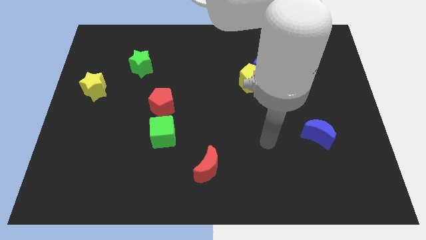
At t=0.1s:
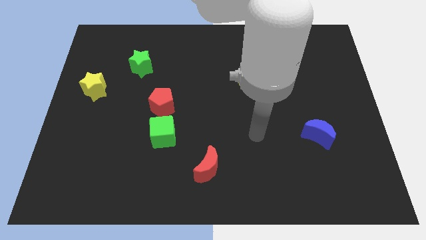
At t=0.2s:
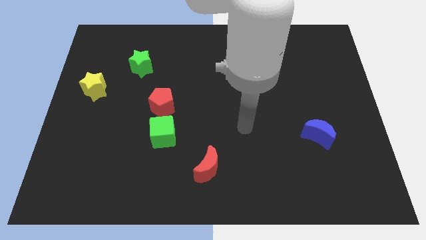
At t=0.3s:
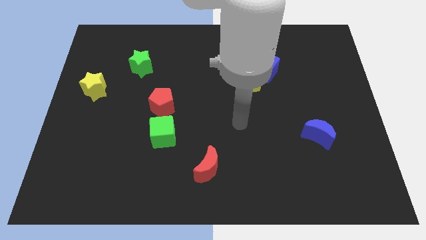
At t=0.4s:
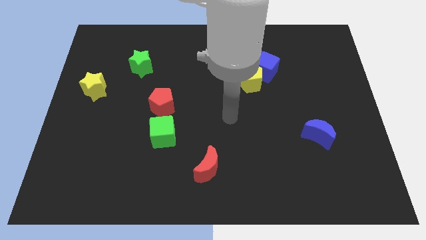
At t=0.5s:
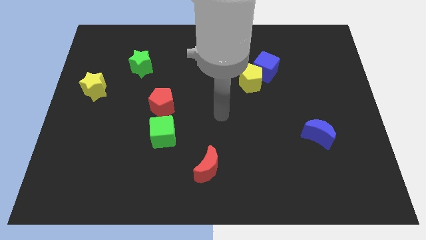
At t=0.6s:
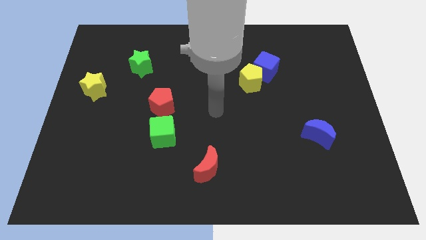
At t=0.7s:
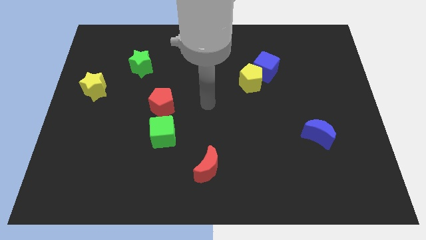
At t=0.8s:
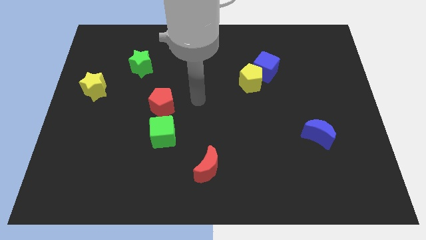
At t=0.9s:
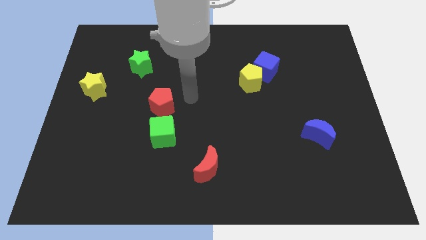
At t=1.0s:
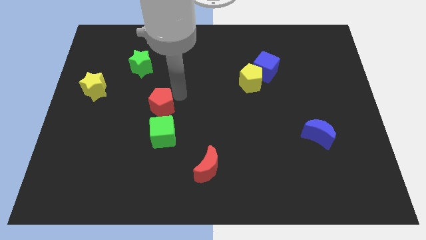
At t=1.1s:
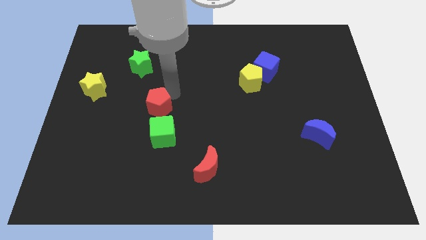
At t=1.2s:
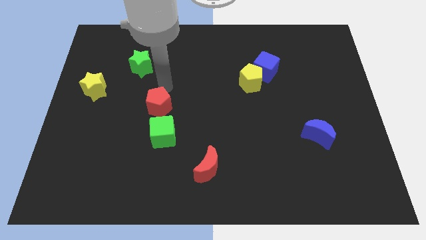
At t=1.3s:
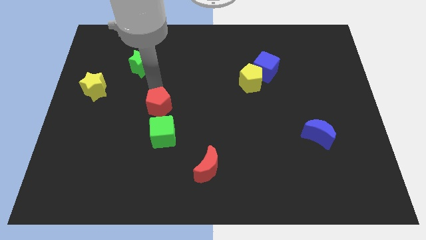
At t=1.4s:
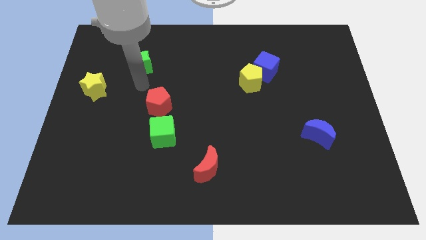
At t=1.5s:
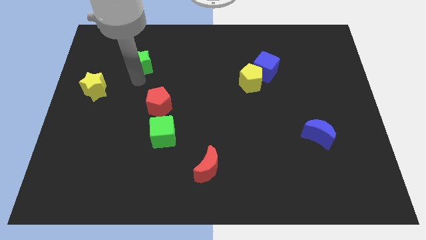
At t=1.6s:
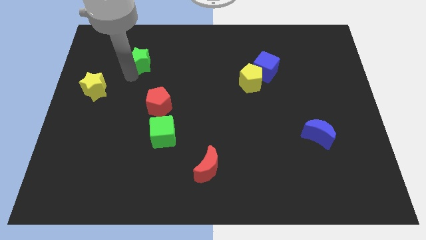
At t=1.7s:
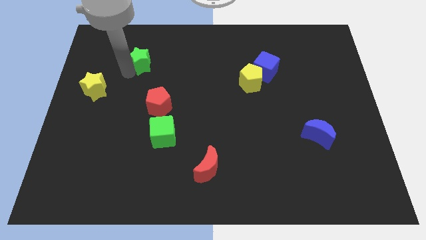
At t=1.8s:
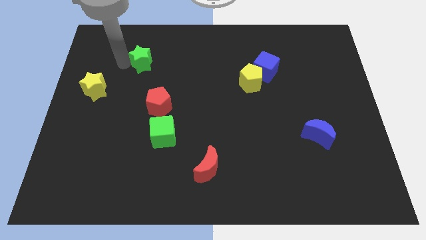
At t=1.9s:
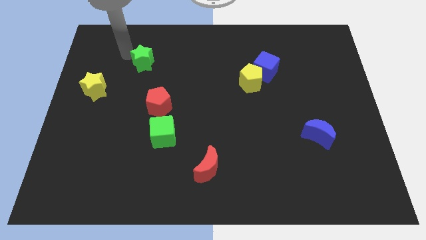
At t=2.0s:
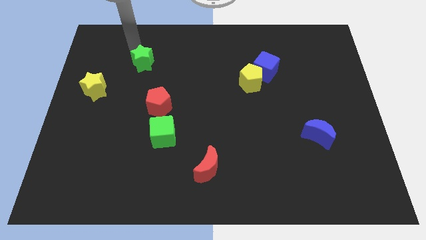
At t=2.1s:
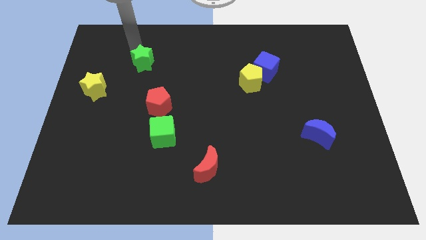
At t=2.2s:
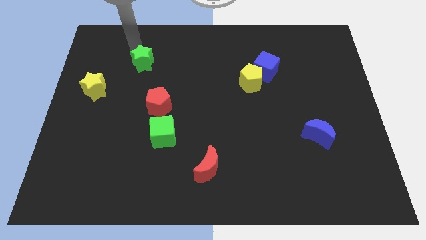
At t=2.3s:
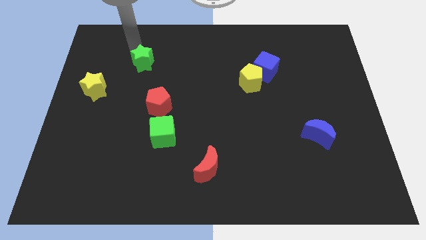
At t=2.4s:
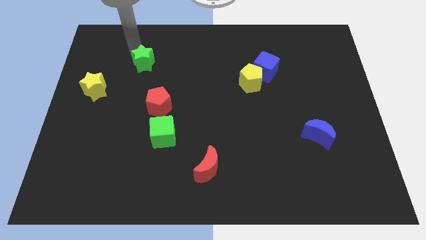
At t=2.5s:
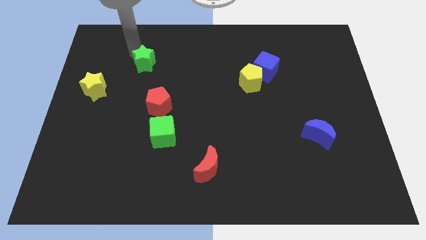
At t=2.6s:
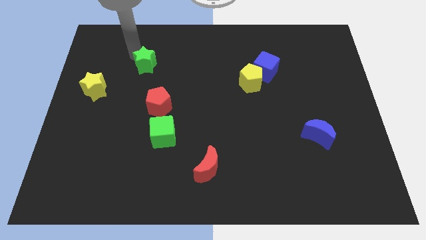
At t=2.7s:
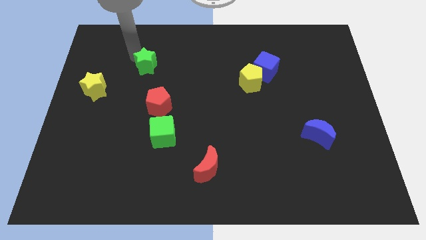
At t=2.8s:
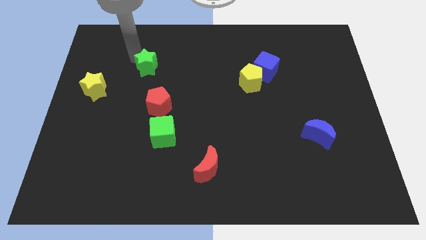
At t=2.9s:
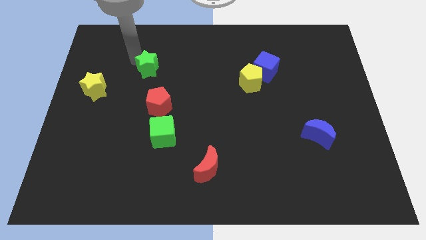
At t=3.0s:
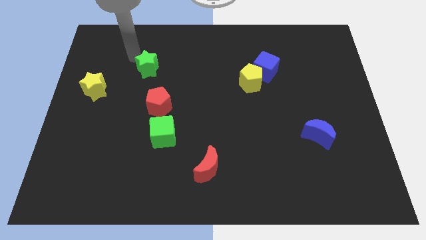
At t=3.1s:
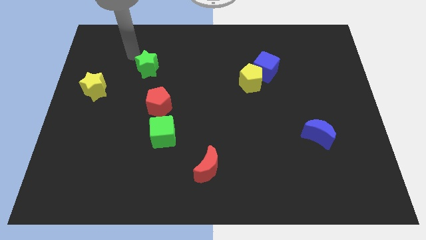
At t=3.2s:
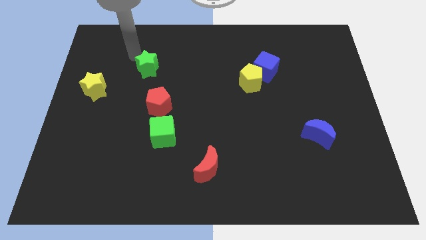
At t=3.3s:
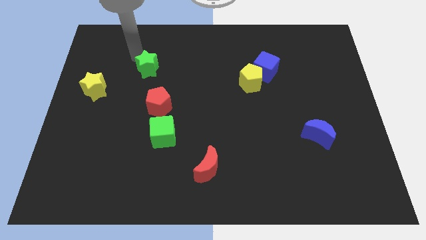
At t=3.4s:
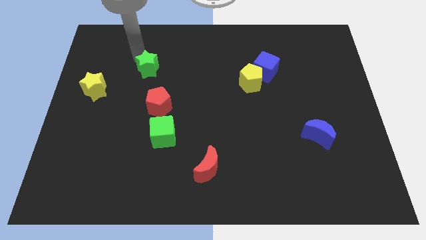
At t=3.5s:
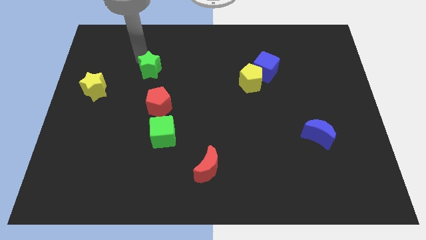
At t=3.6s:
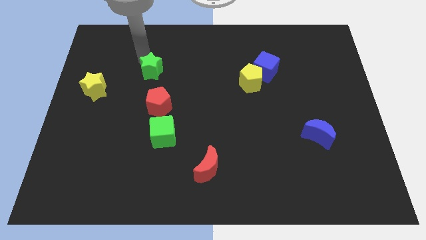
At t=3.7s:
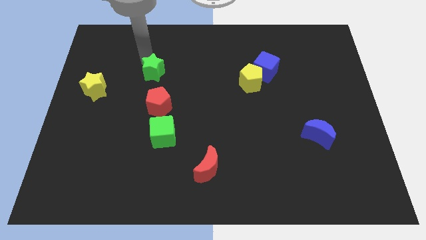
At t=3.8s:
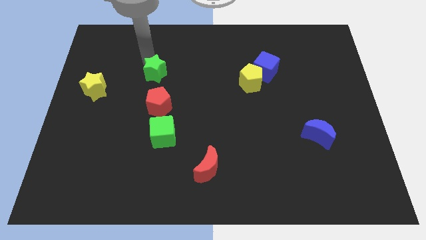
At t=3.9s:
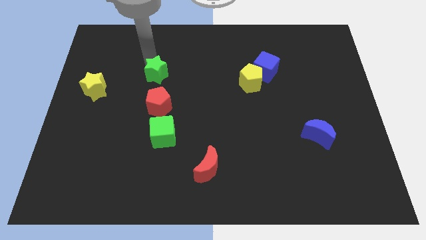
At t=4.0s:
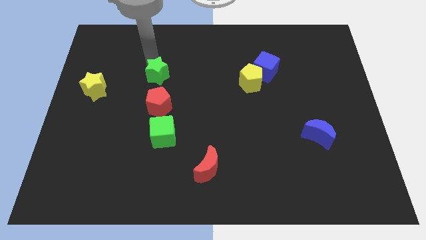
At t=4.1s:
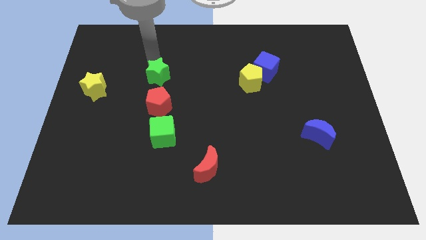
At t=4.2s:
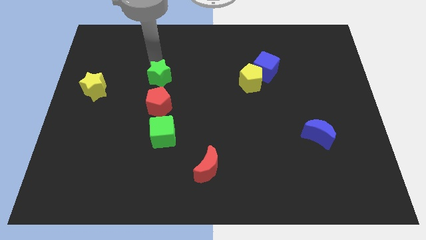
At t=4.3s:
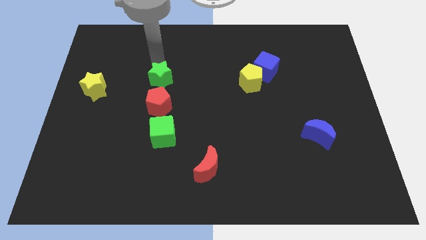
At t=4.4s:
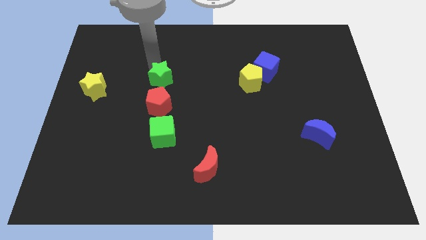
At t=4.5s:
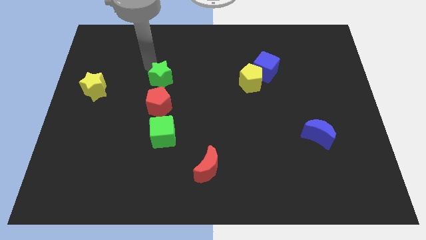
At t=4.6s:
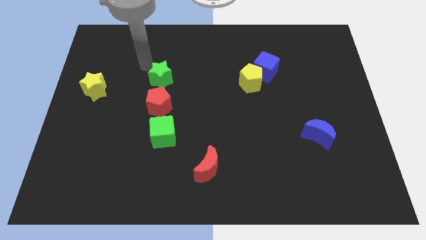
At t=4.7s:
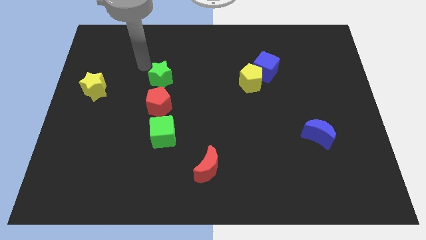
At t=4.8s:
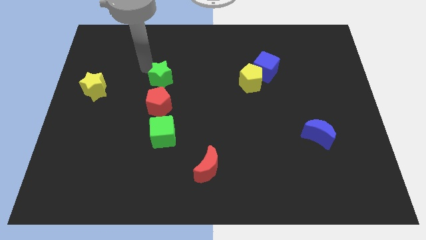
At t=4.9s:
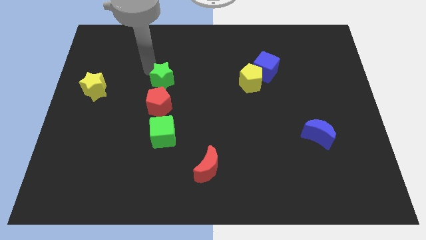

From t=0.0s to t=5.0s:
slightly move the green star diagonally down and to the right

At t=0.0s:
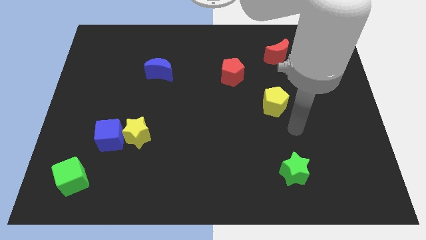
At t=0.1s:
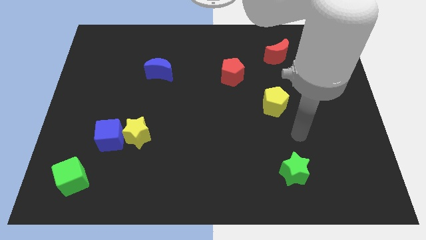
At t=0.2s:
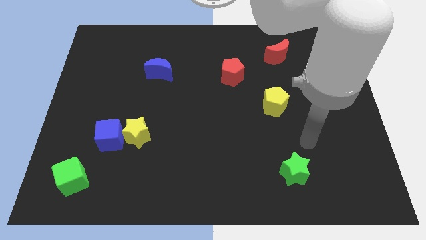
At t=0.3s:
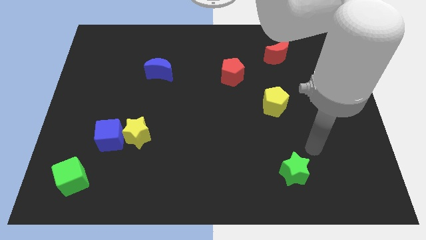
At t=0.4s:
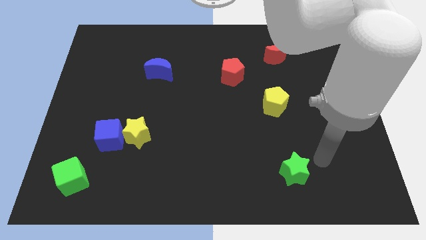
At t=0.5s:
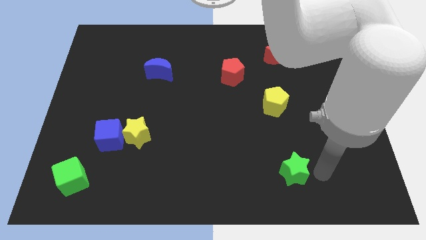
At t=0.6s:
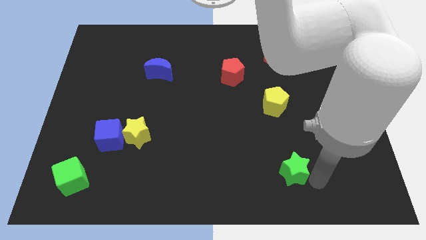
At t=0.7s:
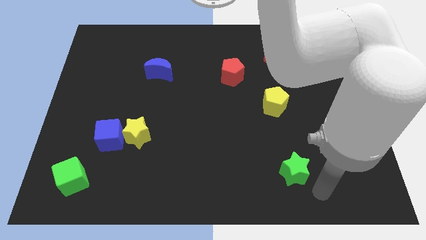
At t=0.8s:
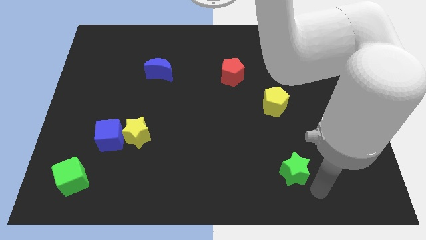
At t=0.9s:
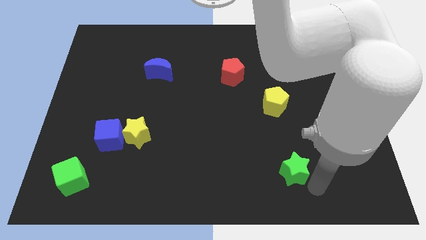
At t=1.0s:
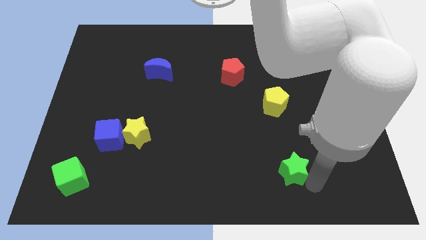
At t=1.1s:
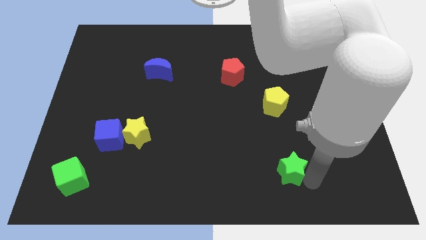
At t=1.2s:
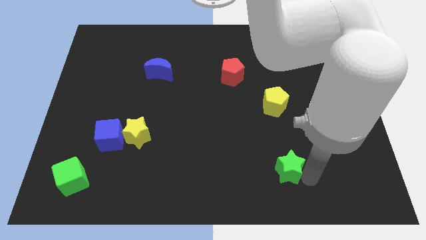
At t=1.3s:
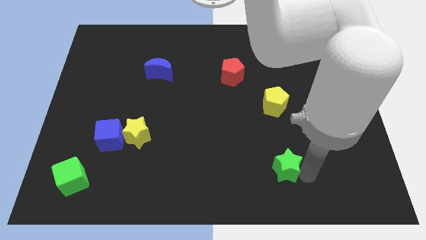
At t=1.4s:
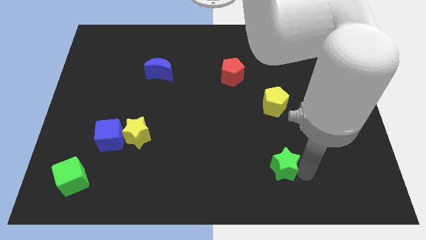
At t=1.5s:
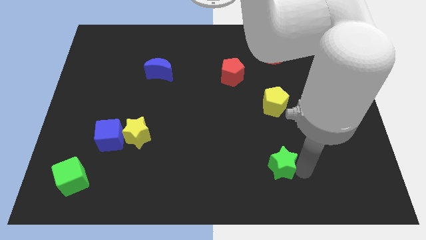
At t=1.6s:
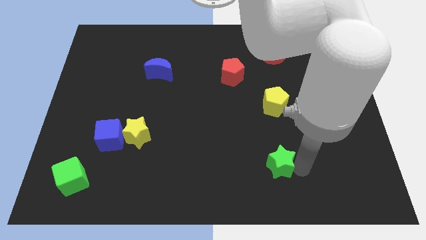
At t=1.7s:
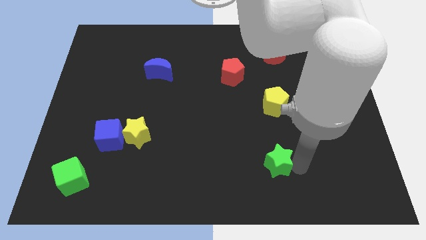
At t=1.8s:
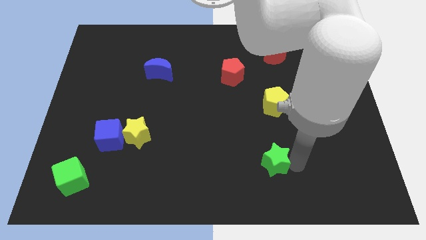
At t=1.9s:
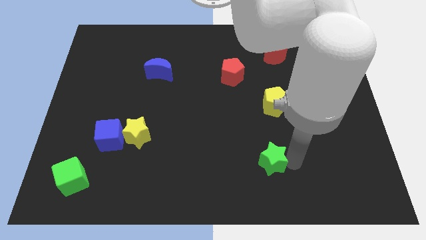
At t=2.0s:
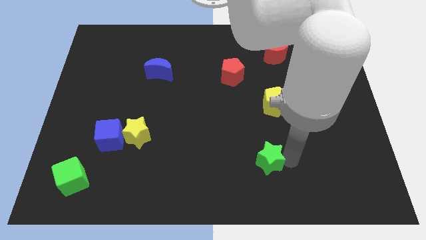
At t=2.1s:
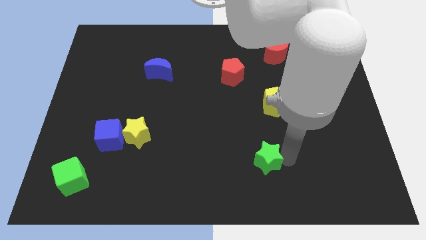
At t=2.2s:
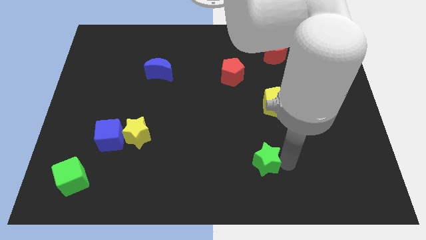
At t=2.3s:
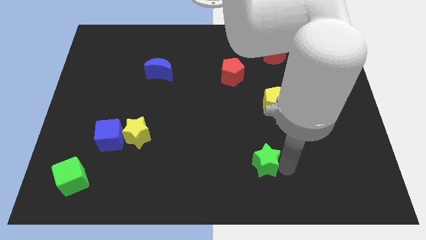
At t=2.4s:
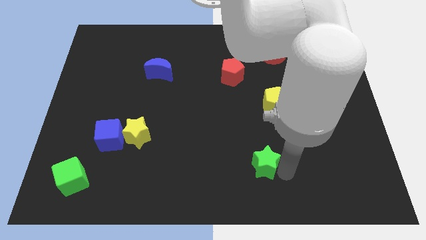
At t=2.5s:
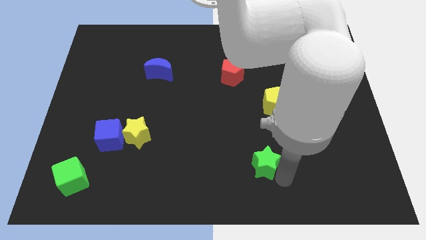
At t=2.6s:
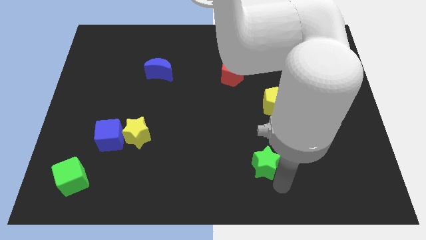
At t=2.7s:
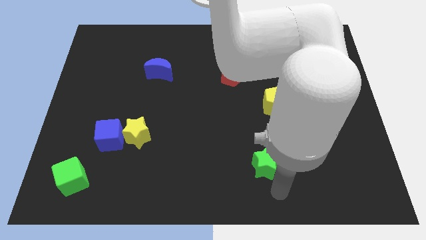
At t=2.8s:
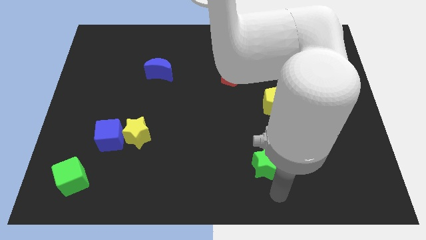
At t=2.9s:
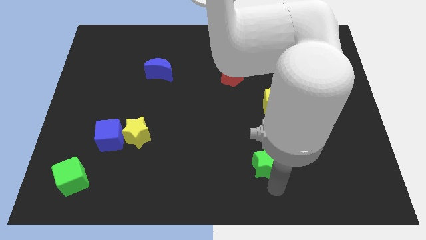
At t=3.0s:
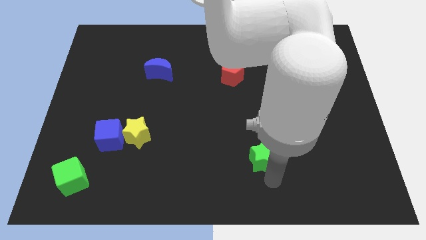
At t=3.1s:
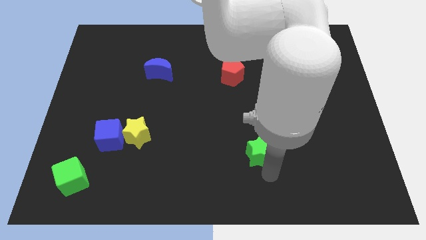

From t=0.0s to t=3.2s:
slide the green star a little upwards and to the left diagonally
